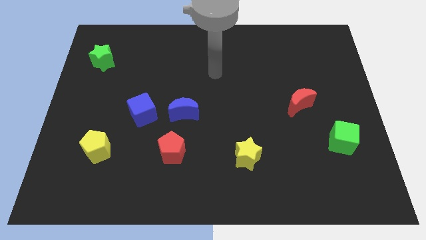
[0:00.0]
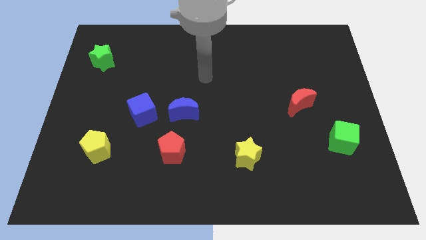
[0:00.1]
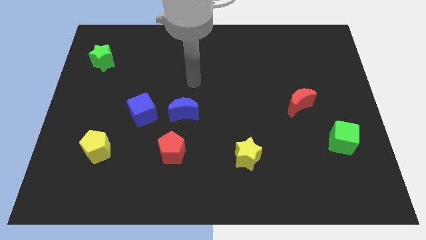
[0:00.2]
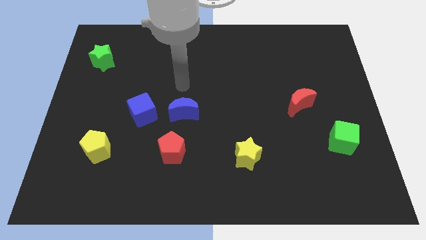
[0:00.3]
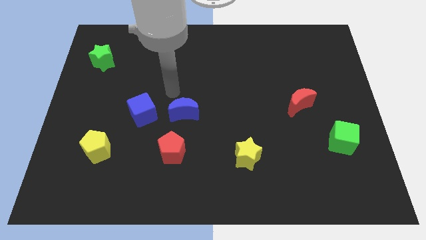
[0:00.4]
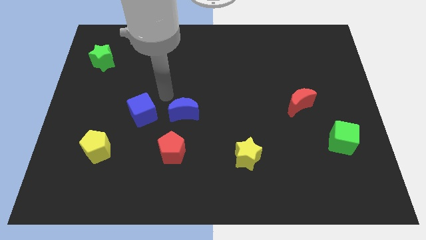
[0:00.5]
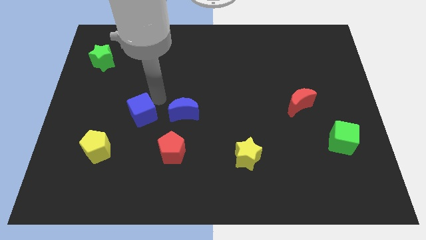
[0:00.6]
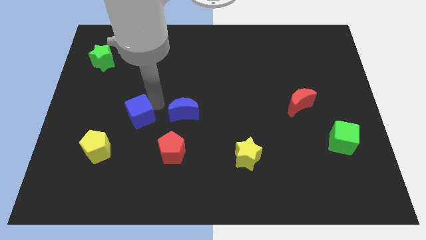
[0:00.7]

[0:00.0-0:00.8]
move the blue moon away from the blue cube

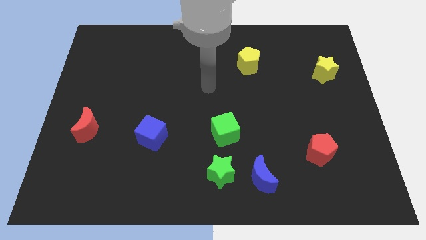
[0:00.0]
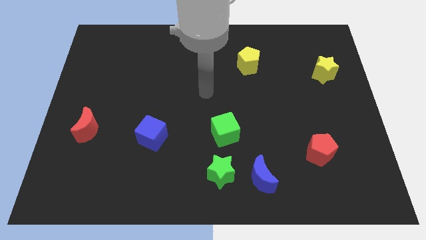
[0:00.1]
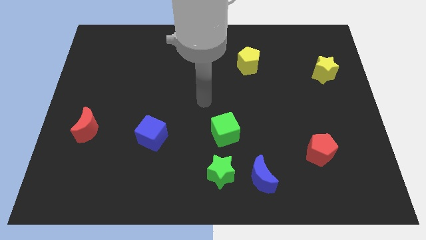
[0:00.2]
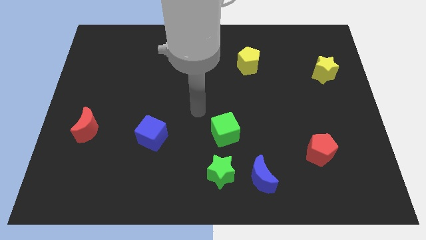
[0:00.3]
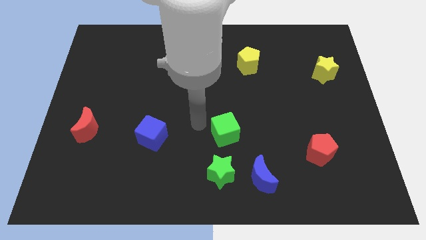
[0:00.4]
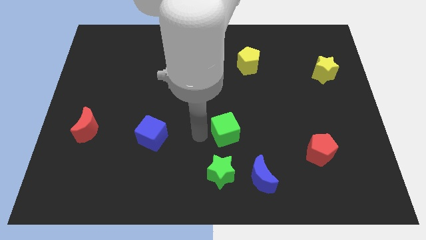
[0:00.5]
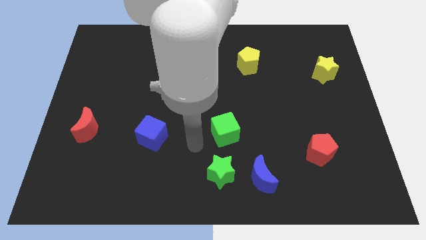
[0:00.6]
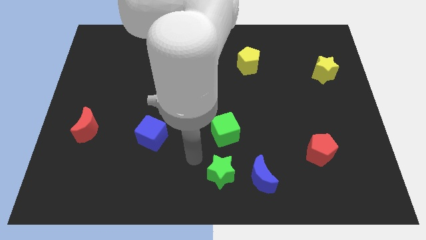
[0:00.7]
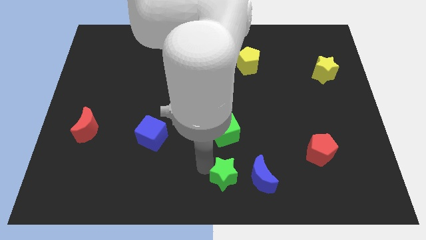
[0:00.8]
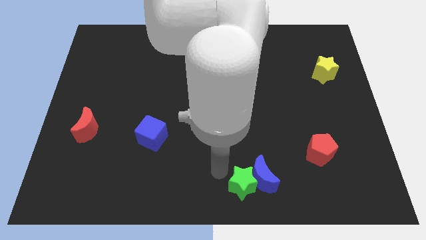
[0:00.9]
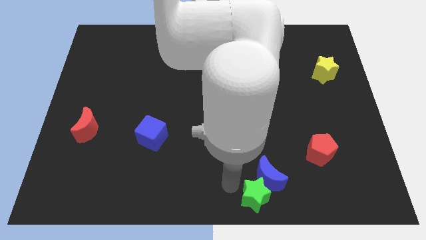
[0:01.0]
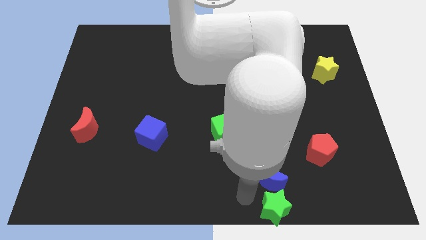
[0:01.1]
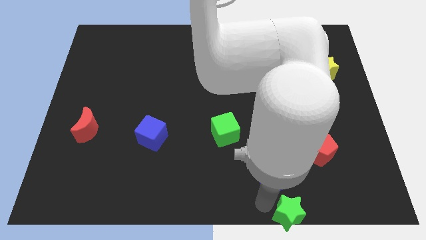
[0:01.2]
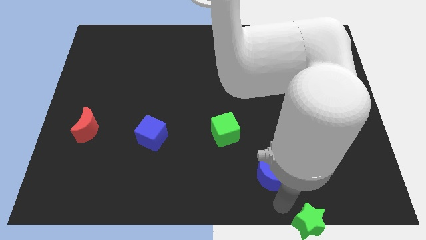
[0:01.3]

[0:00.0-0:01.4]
move the blue moon away from the green star

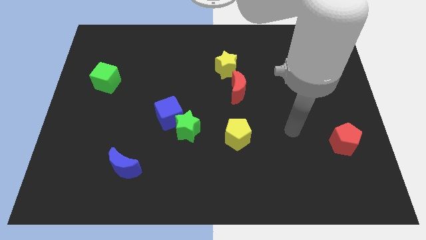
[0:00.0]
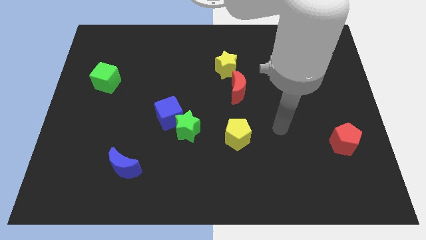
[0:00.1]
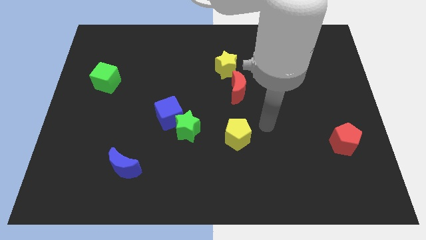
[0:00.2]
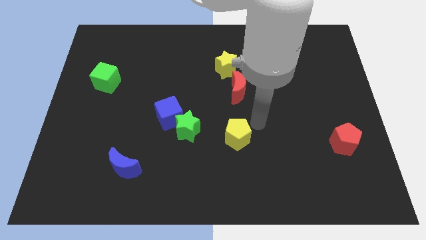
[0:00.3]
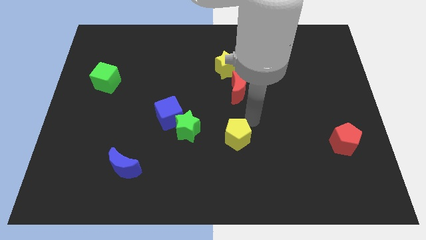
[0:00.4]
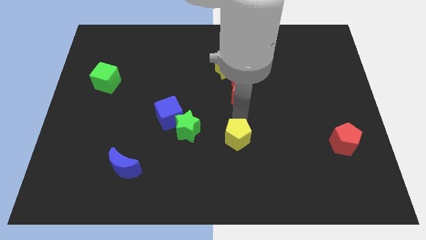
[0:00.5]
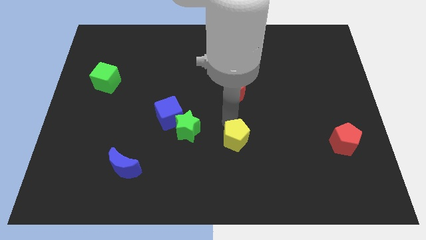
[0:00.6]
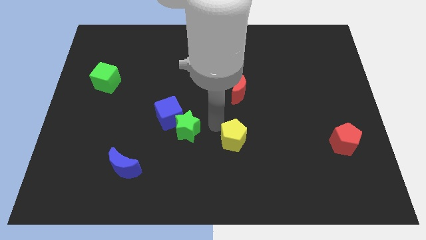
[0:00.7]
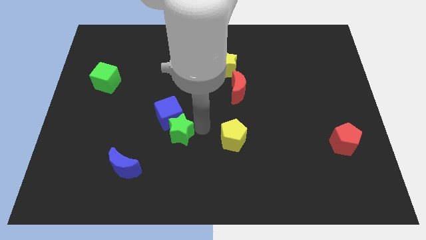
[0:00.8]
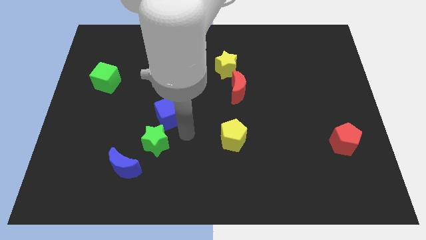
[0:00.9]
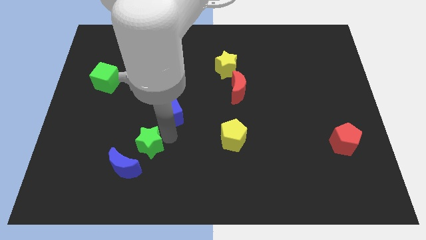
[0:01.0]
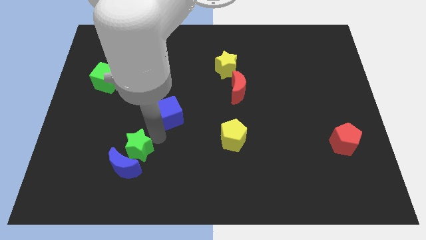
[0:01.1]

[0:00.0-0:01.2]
pull the blue cube apart from the green star

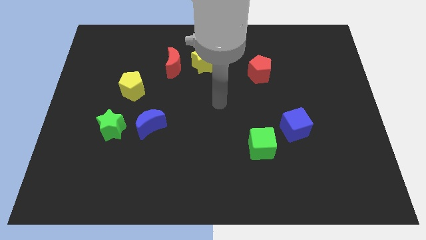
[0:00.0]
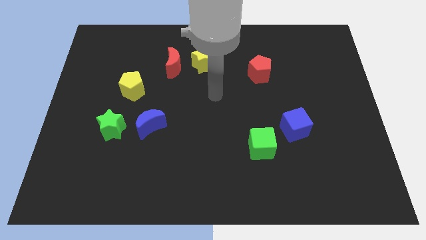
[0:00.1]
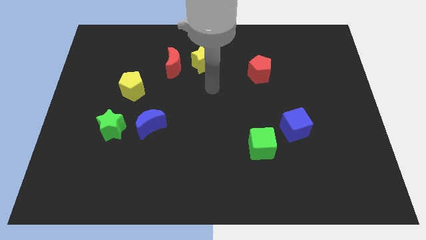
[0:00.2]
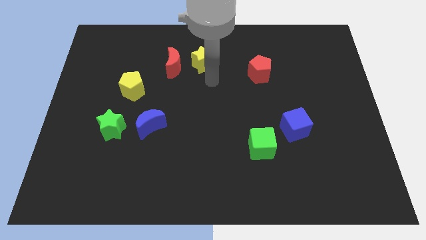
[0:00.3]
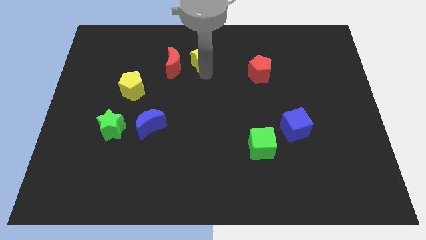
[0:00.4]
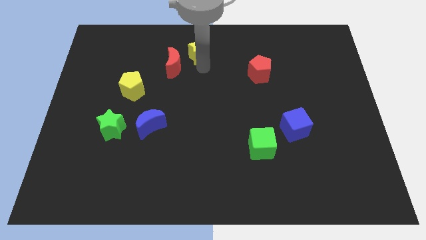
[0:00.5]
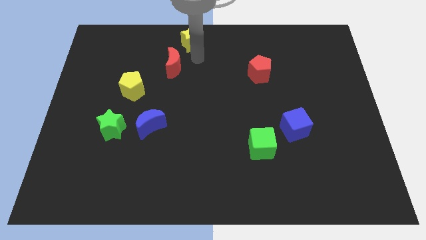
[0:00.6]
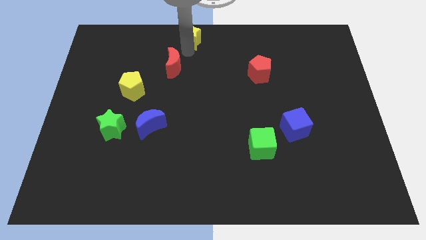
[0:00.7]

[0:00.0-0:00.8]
pull the red moon apart from the yellow star

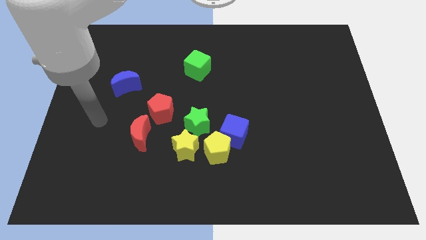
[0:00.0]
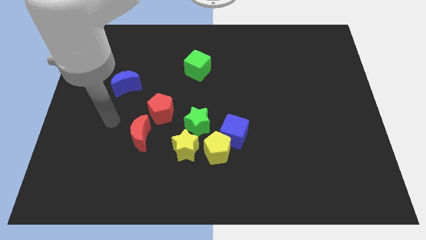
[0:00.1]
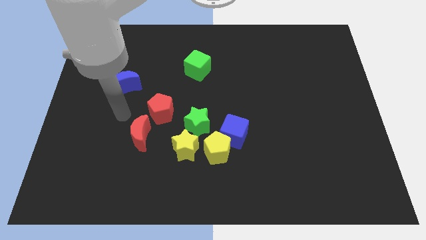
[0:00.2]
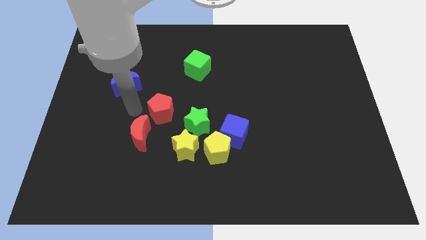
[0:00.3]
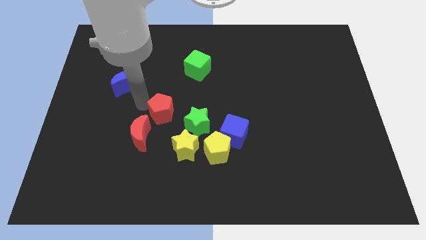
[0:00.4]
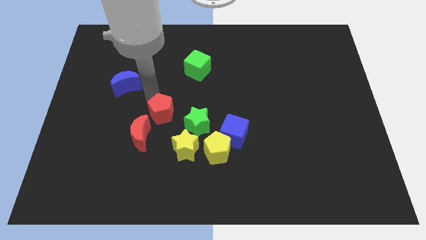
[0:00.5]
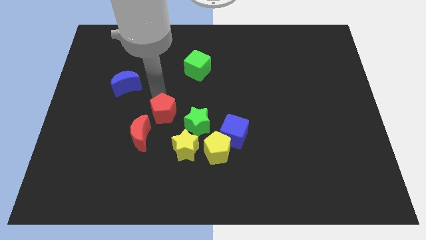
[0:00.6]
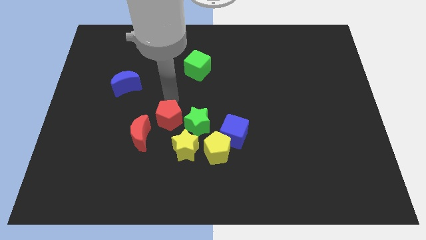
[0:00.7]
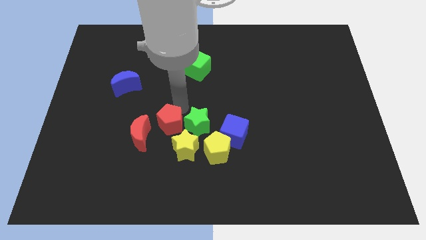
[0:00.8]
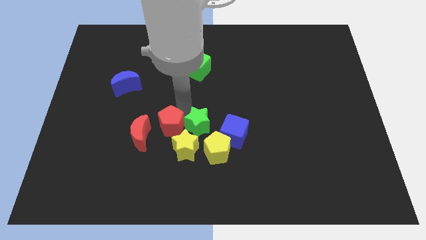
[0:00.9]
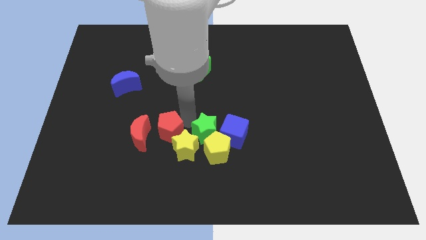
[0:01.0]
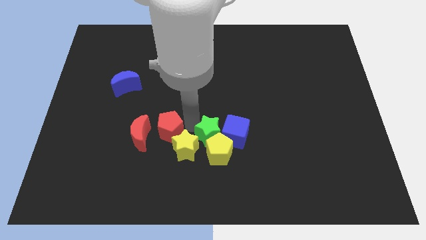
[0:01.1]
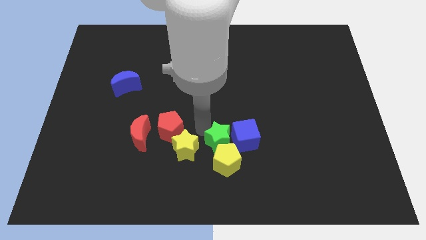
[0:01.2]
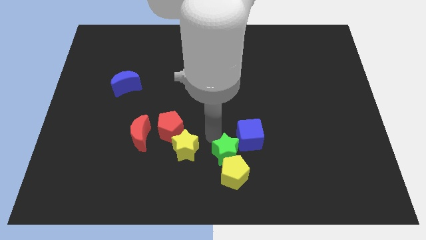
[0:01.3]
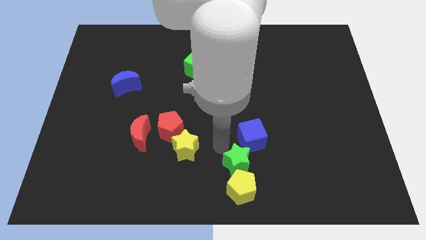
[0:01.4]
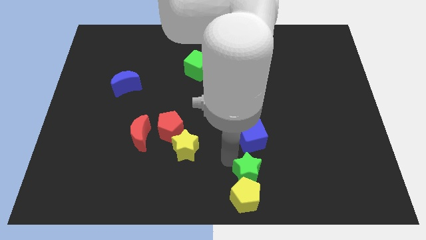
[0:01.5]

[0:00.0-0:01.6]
separate the yellow pentagon from the group

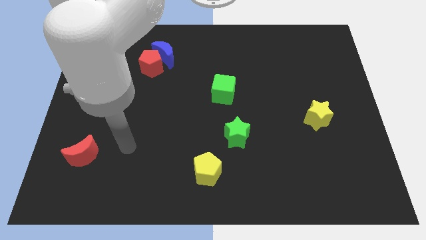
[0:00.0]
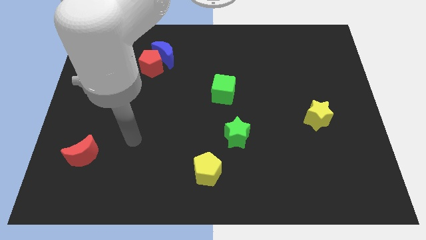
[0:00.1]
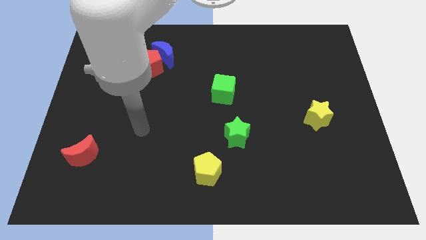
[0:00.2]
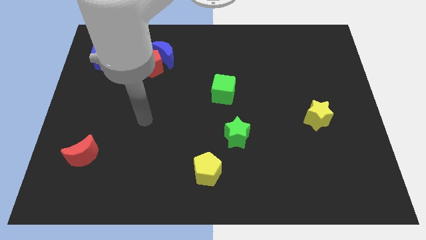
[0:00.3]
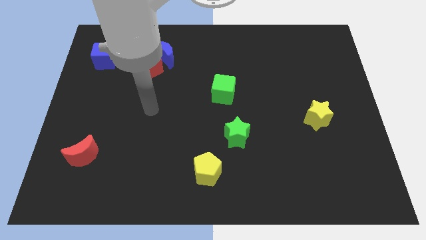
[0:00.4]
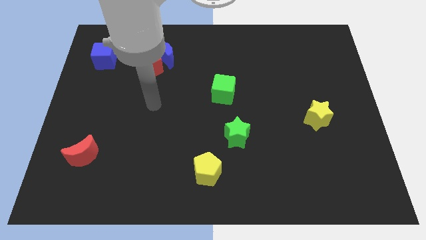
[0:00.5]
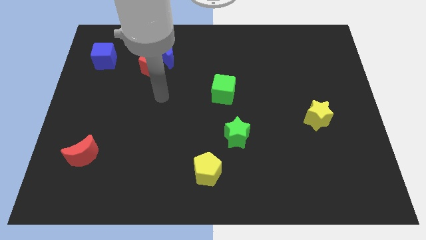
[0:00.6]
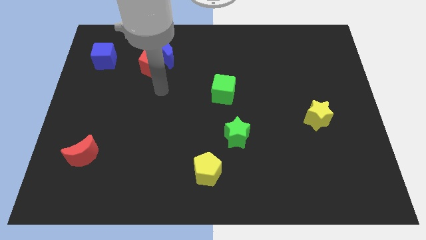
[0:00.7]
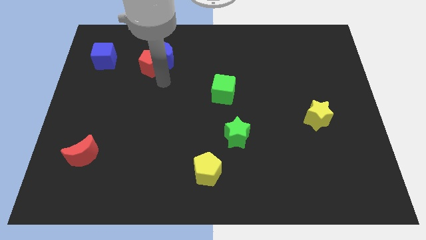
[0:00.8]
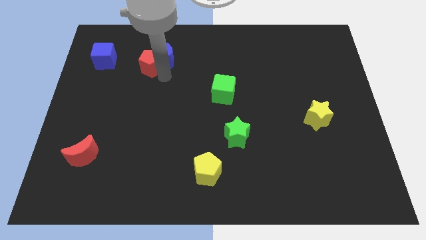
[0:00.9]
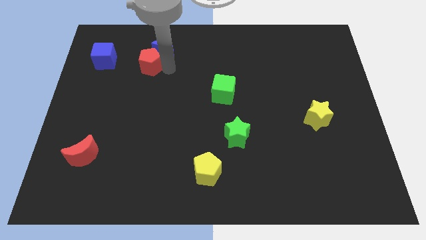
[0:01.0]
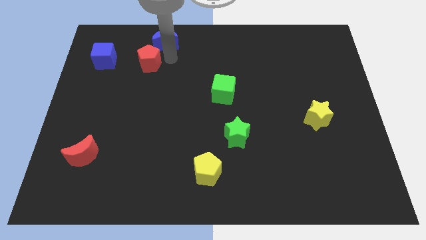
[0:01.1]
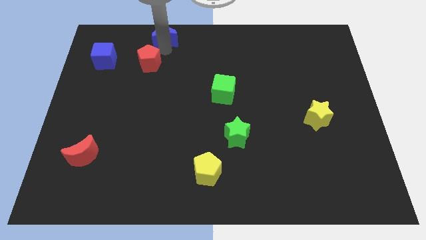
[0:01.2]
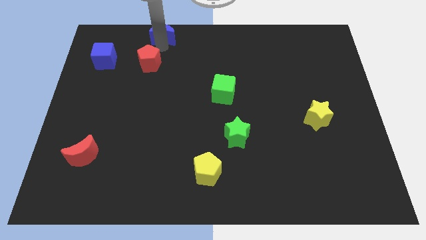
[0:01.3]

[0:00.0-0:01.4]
move the red pentagon away from the blue moon

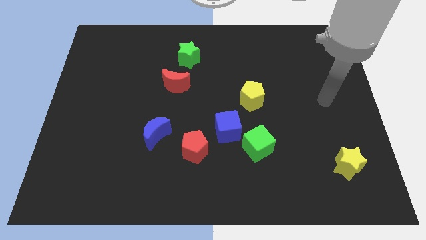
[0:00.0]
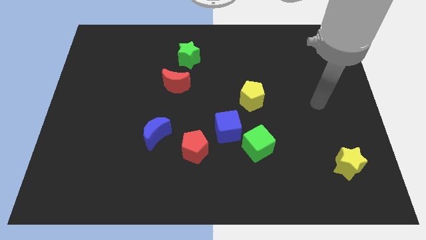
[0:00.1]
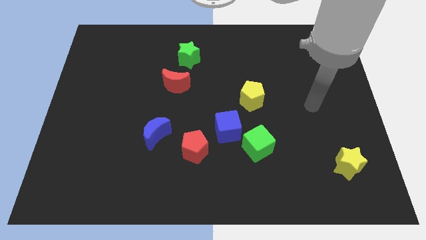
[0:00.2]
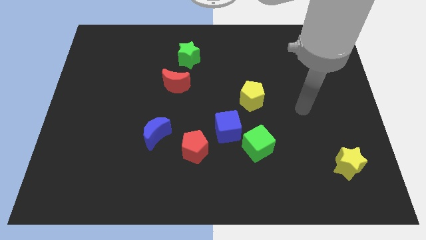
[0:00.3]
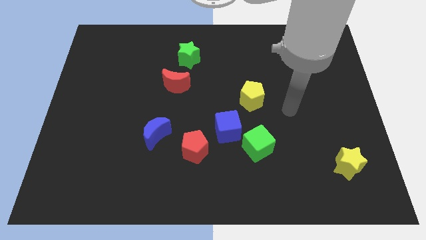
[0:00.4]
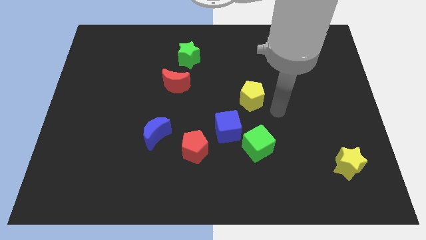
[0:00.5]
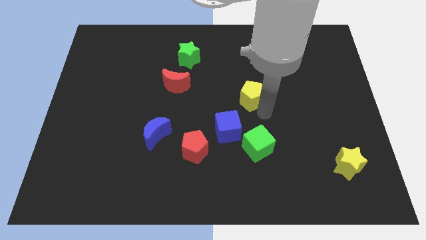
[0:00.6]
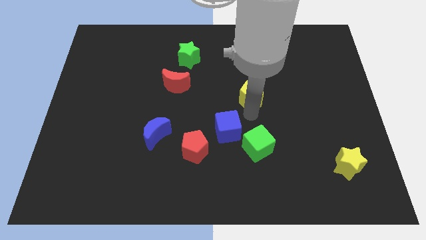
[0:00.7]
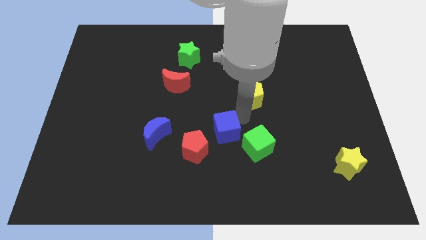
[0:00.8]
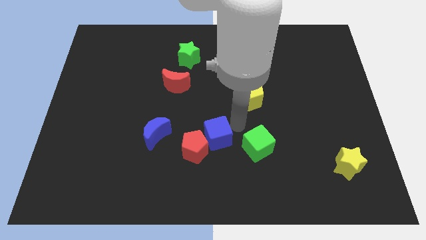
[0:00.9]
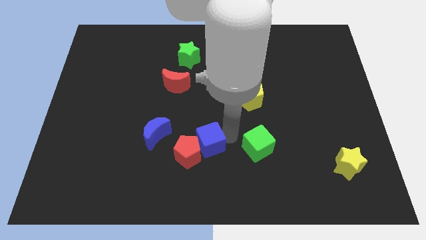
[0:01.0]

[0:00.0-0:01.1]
move the green cube away from the blue cube

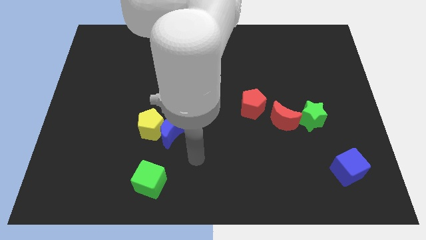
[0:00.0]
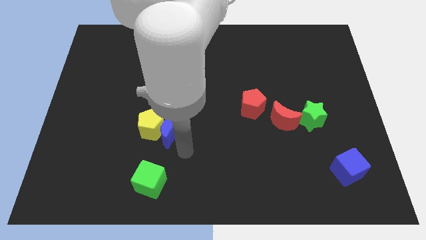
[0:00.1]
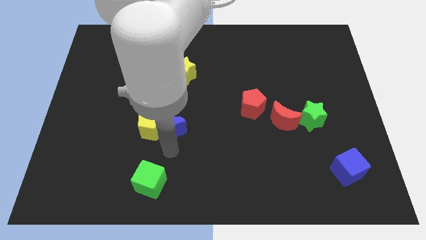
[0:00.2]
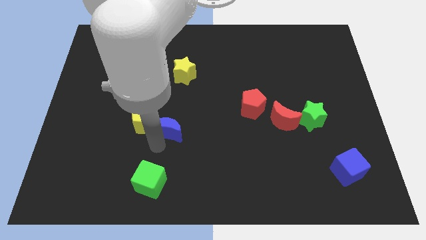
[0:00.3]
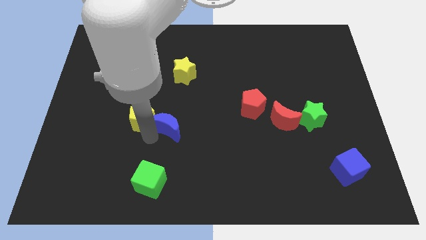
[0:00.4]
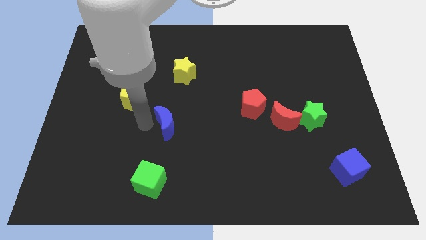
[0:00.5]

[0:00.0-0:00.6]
pull the blue moon apart from the yellow pentagon

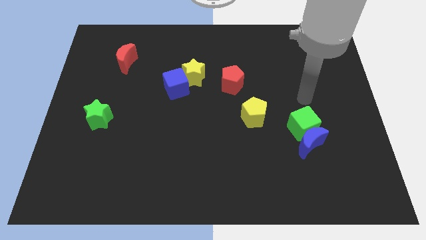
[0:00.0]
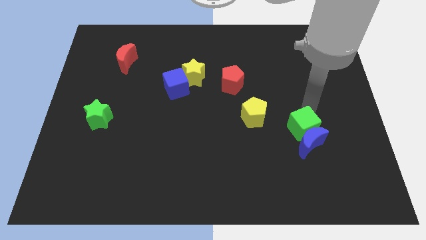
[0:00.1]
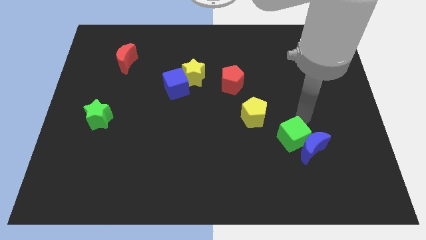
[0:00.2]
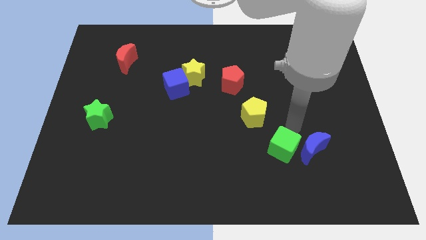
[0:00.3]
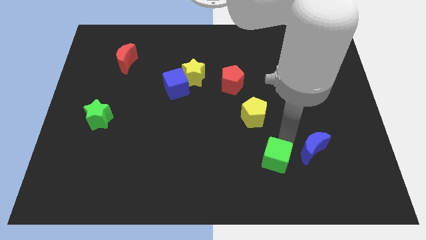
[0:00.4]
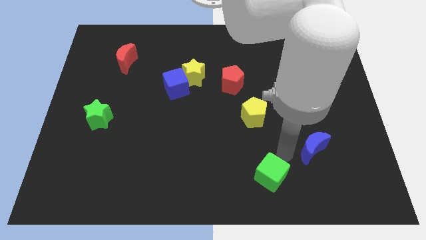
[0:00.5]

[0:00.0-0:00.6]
move the blue moon away from the green cube
